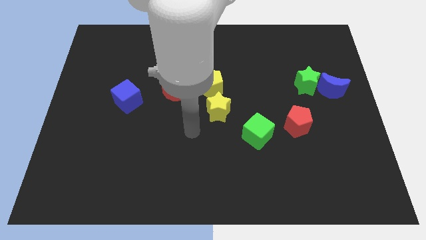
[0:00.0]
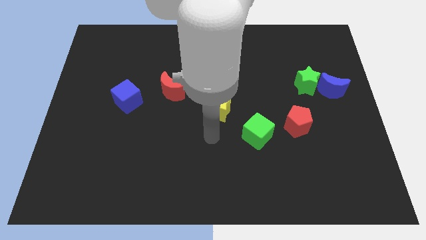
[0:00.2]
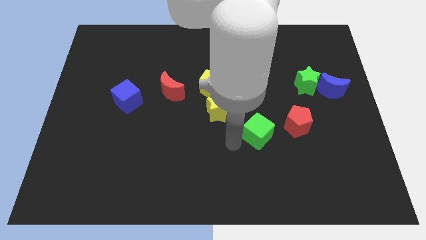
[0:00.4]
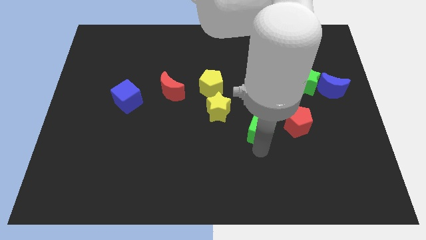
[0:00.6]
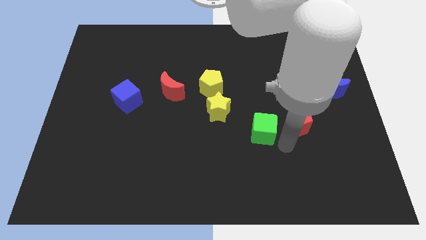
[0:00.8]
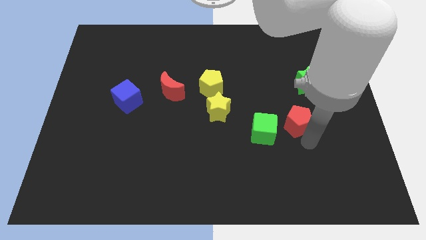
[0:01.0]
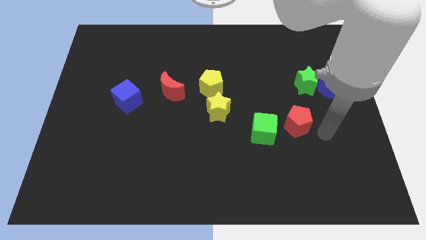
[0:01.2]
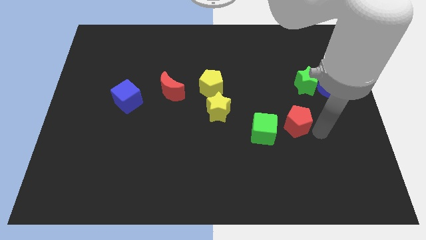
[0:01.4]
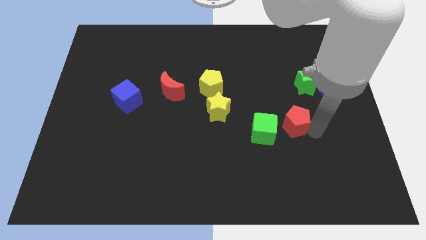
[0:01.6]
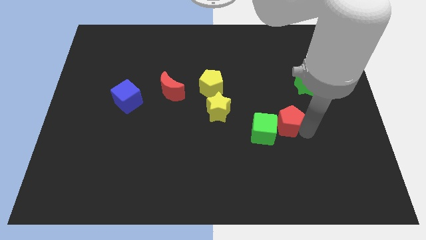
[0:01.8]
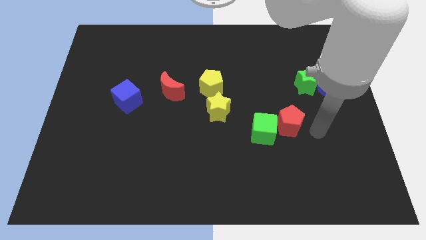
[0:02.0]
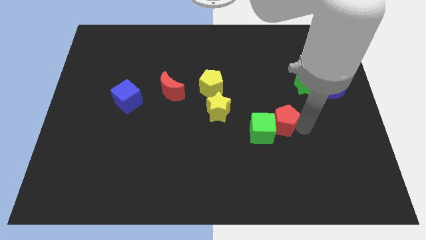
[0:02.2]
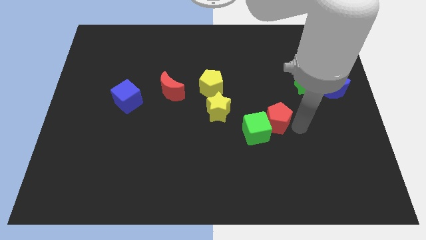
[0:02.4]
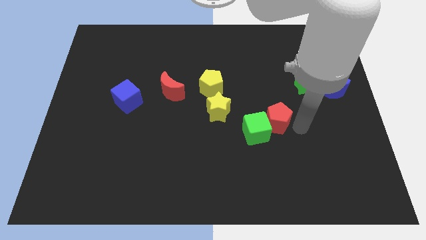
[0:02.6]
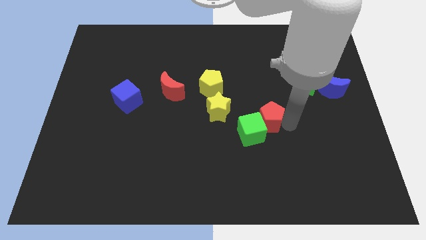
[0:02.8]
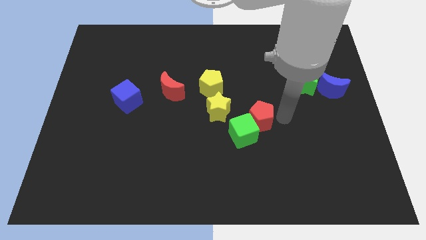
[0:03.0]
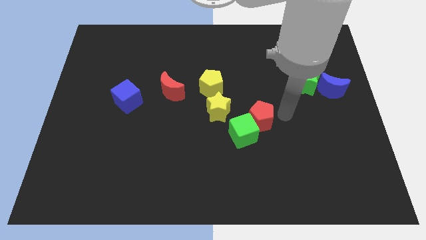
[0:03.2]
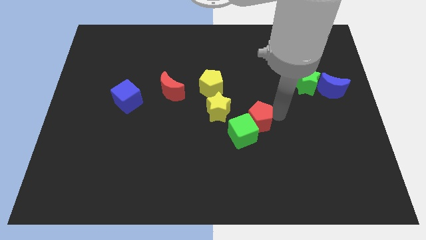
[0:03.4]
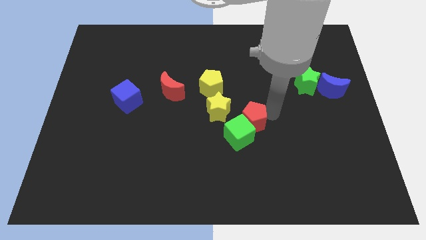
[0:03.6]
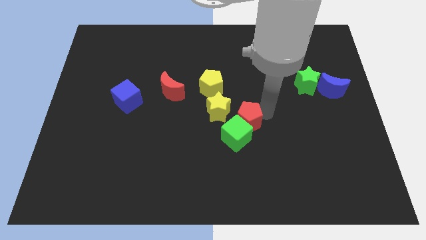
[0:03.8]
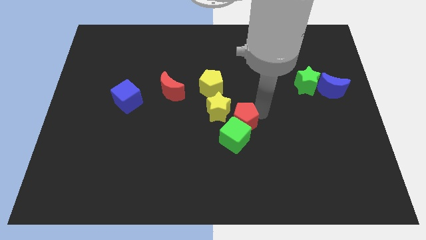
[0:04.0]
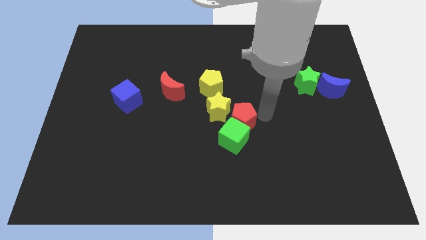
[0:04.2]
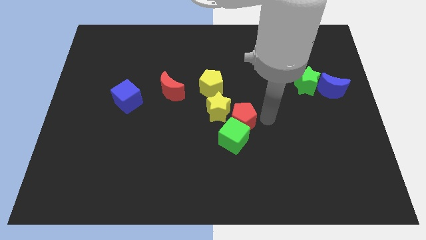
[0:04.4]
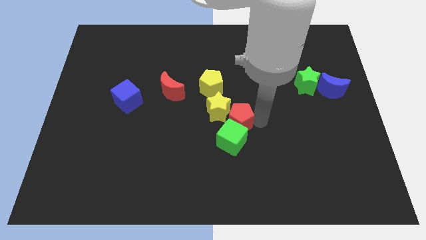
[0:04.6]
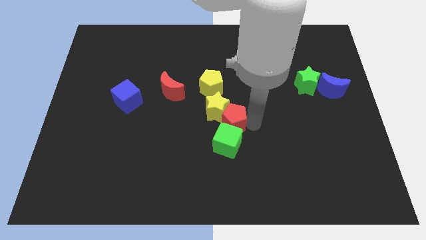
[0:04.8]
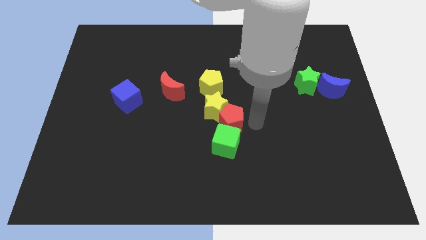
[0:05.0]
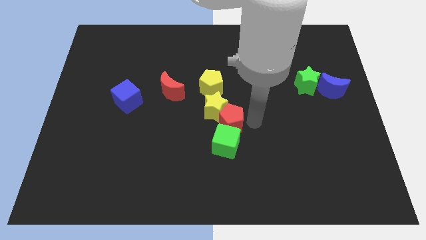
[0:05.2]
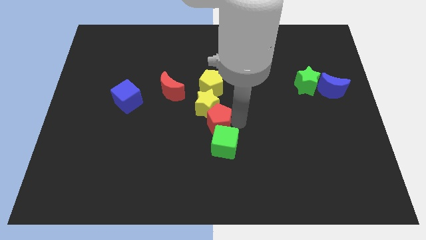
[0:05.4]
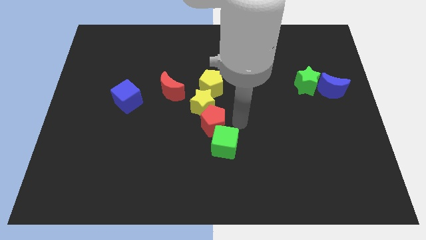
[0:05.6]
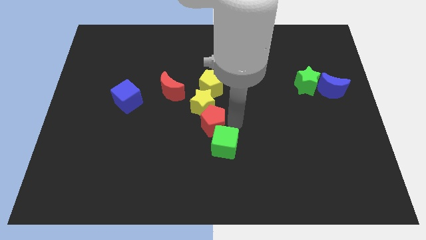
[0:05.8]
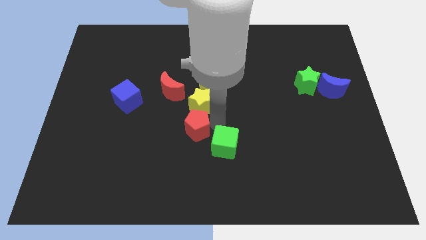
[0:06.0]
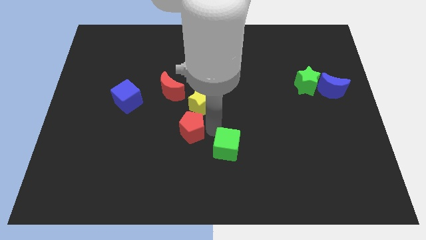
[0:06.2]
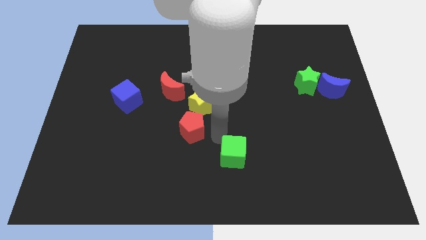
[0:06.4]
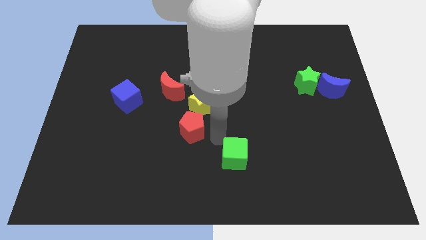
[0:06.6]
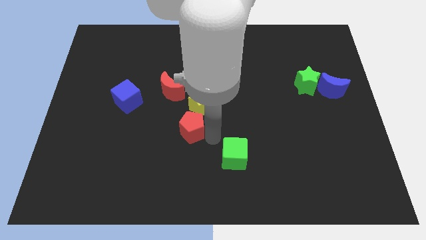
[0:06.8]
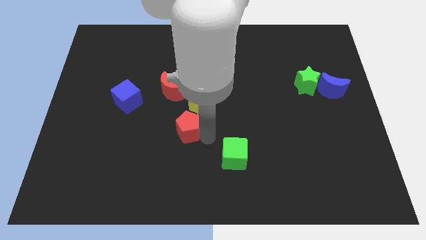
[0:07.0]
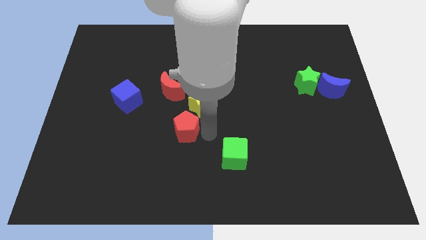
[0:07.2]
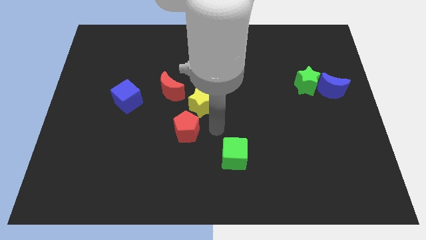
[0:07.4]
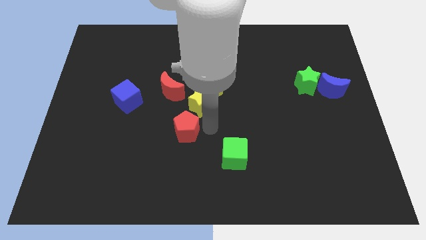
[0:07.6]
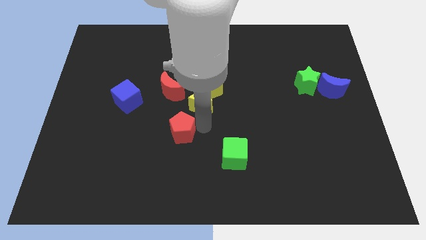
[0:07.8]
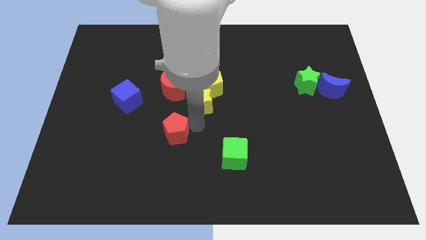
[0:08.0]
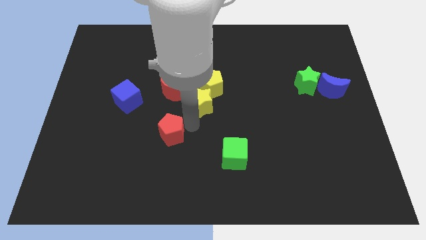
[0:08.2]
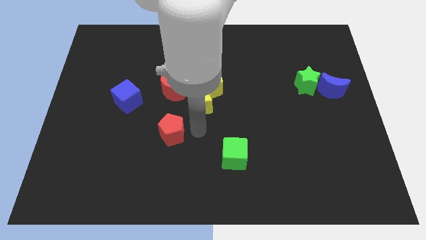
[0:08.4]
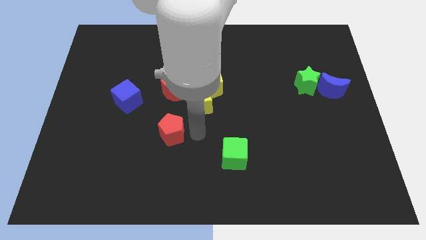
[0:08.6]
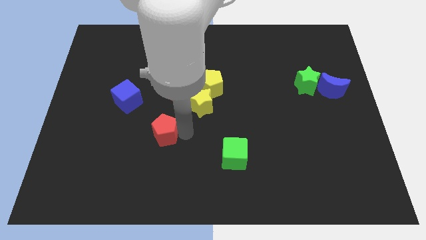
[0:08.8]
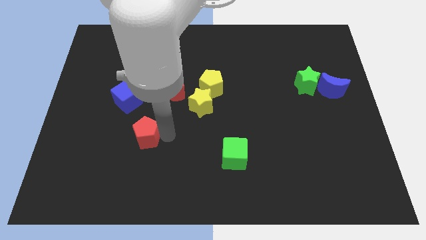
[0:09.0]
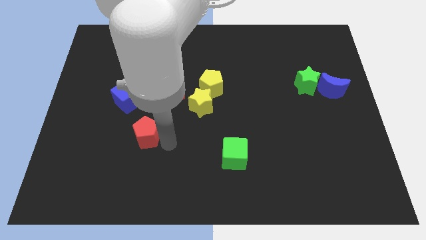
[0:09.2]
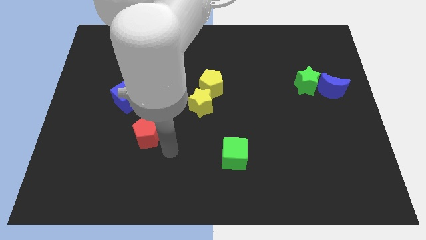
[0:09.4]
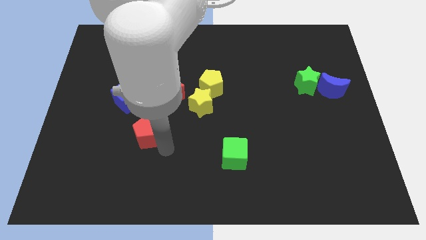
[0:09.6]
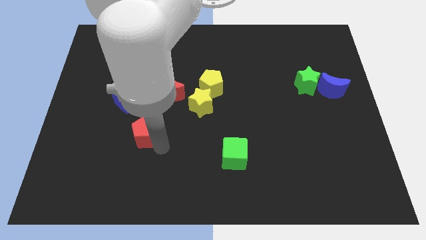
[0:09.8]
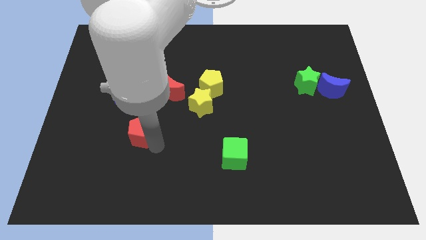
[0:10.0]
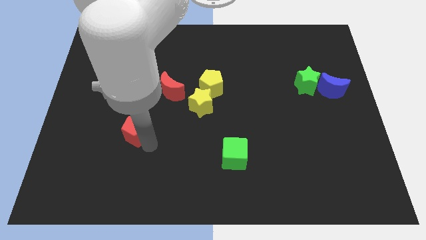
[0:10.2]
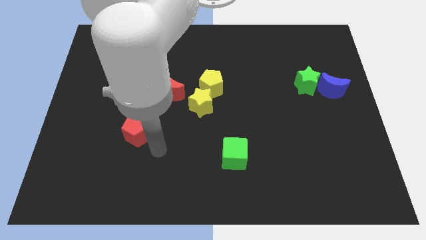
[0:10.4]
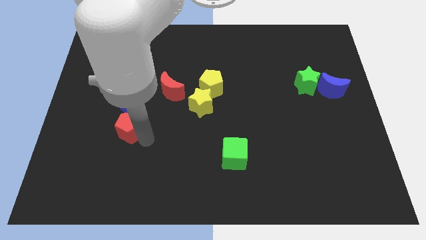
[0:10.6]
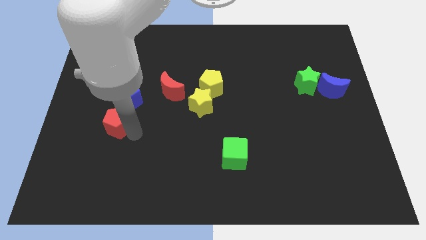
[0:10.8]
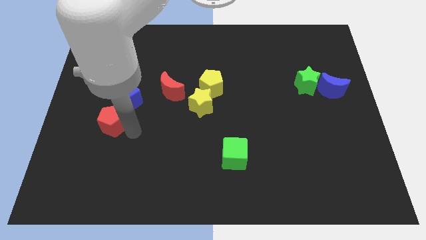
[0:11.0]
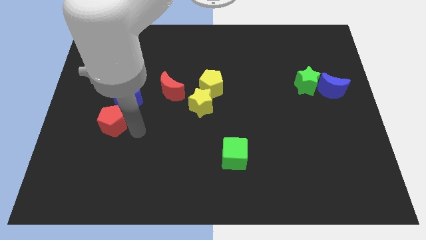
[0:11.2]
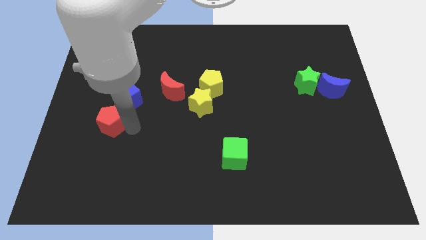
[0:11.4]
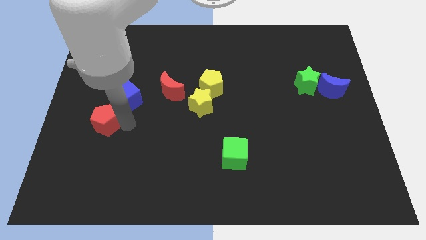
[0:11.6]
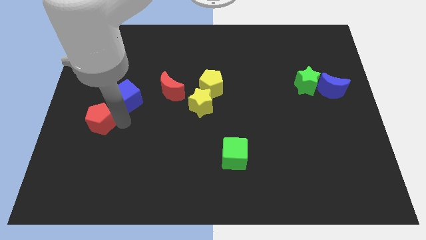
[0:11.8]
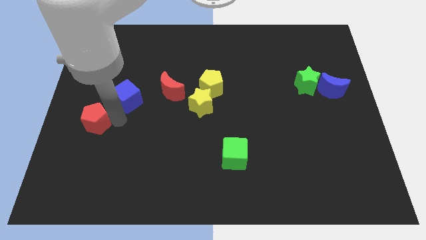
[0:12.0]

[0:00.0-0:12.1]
move the red pentagon to the left side of the board

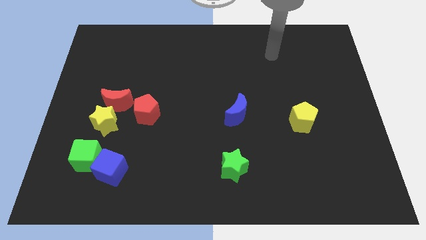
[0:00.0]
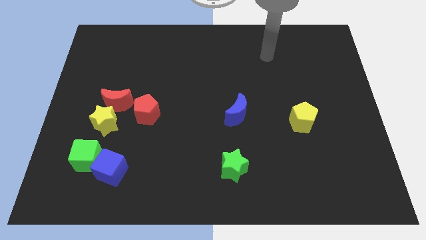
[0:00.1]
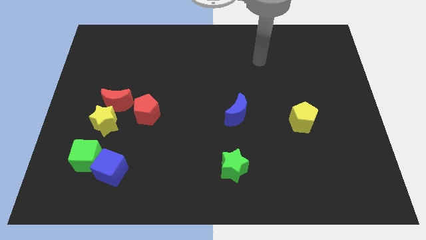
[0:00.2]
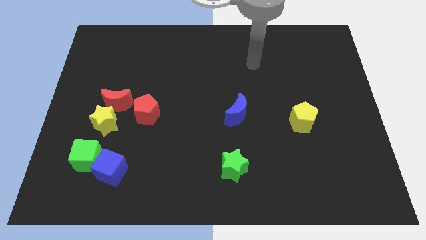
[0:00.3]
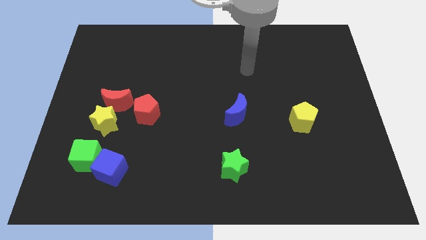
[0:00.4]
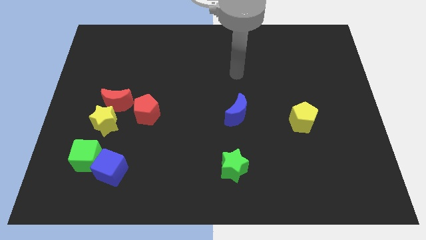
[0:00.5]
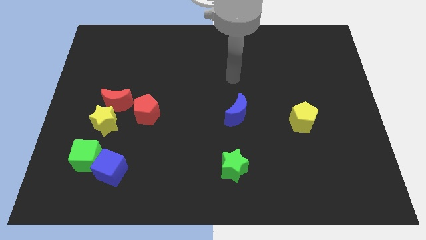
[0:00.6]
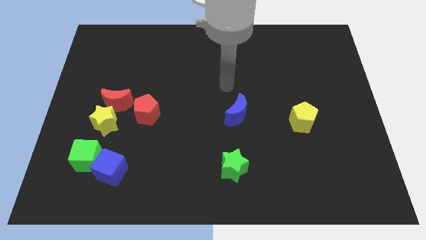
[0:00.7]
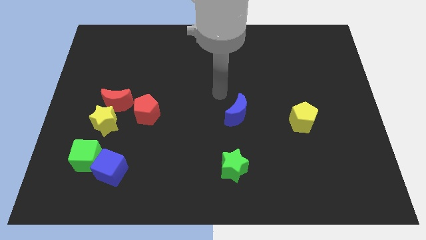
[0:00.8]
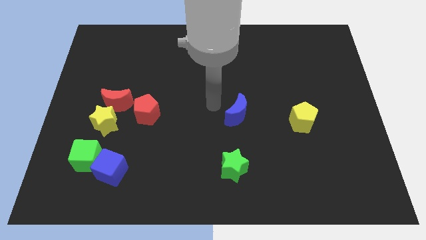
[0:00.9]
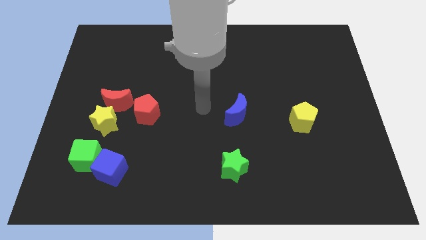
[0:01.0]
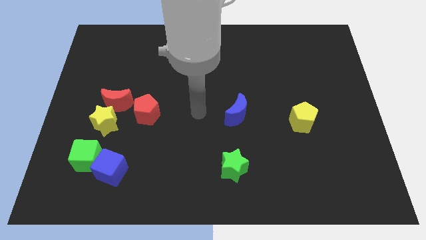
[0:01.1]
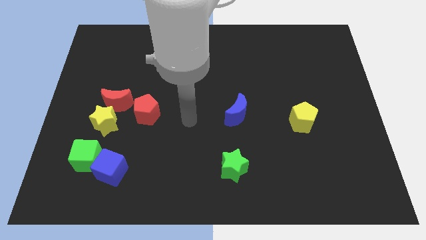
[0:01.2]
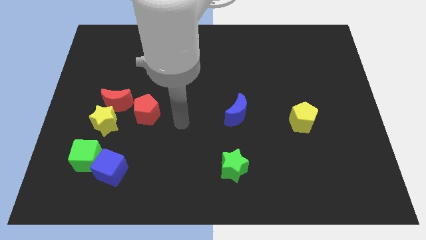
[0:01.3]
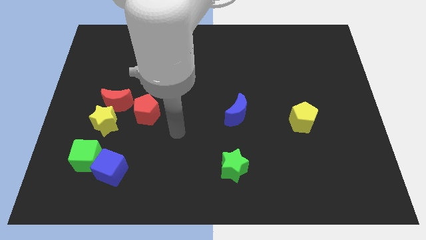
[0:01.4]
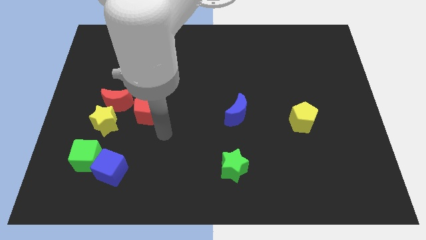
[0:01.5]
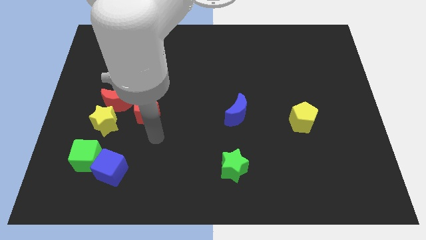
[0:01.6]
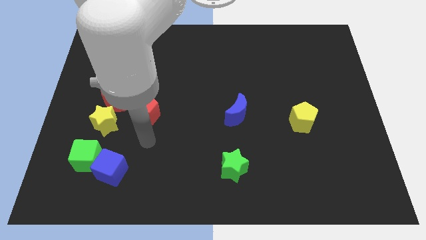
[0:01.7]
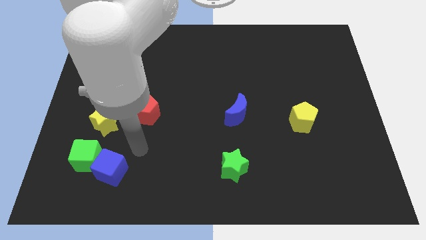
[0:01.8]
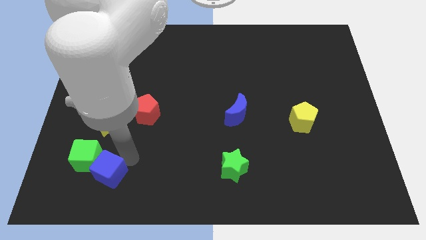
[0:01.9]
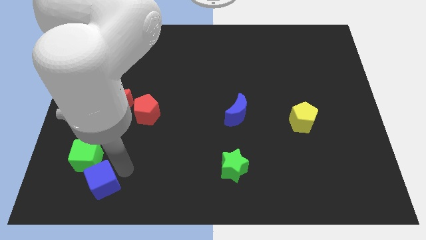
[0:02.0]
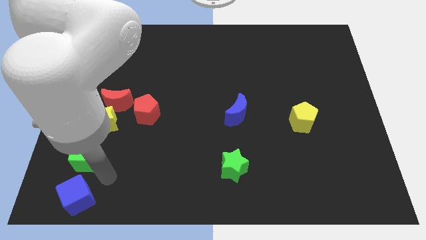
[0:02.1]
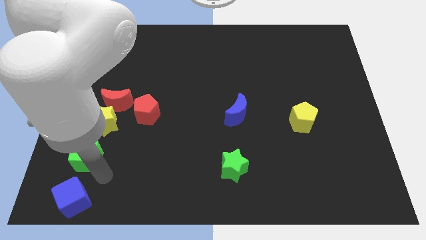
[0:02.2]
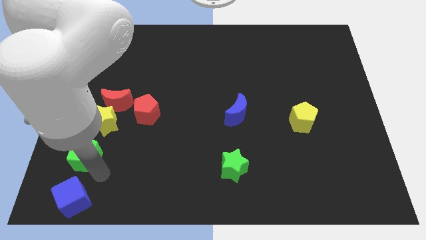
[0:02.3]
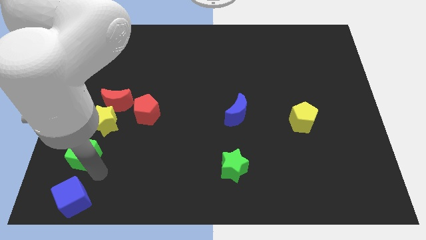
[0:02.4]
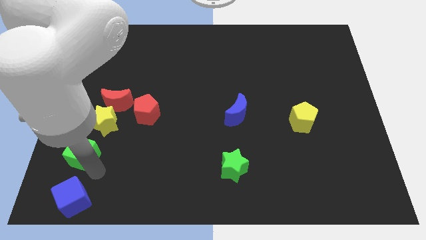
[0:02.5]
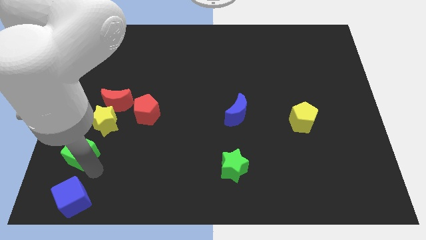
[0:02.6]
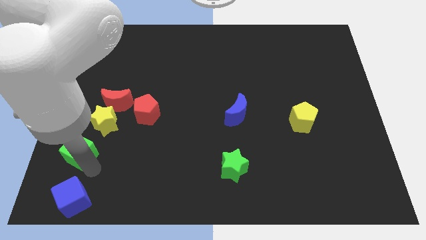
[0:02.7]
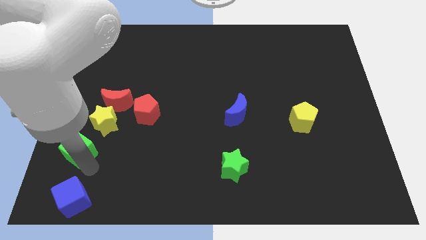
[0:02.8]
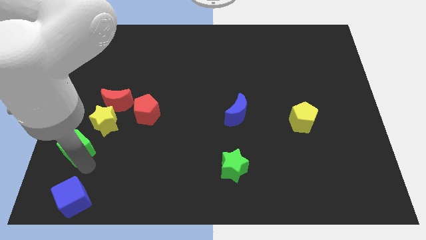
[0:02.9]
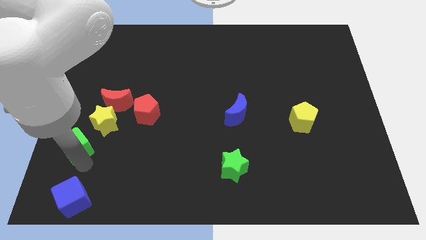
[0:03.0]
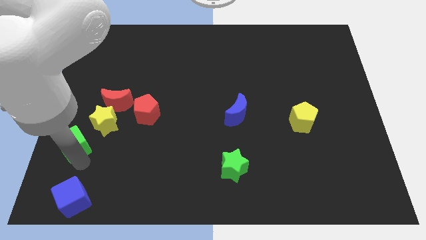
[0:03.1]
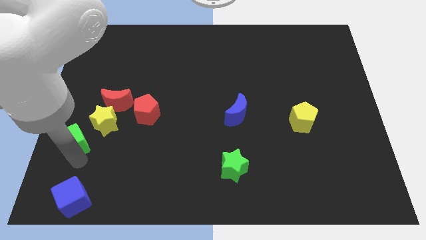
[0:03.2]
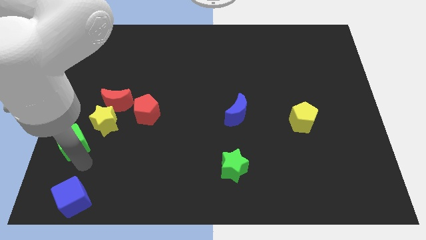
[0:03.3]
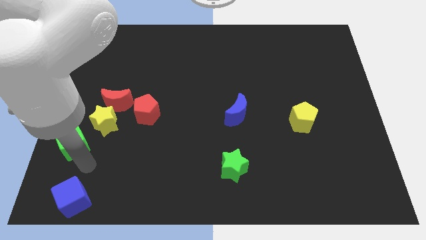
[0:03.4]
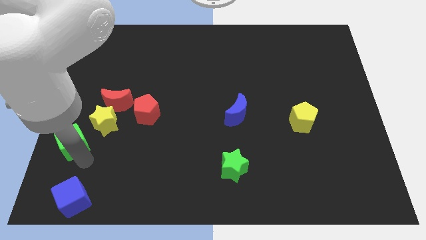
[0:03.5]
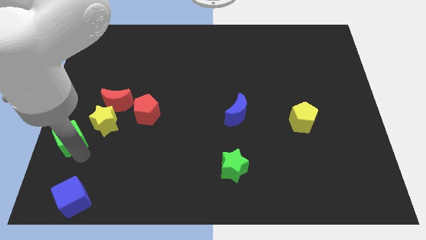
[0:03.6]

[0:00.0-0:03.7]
push the green cube to the left side of the board
